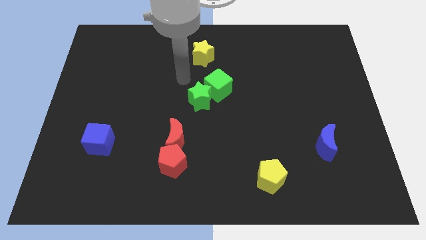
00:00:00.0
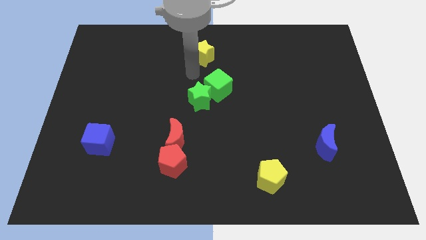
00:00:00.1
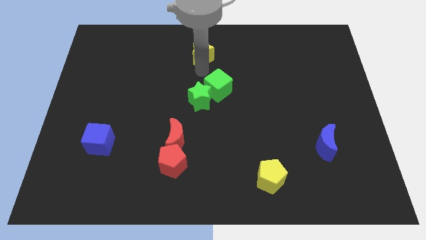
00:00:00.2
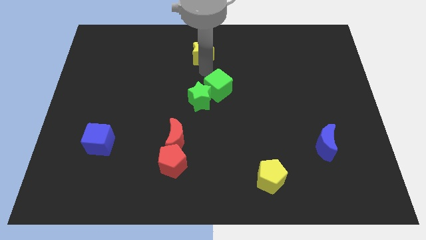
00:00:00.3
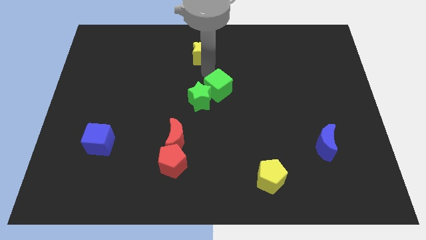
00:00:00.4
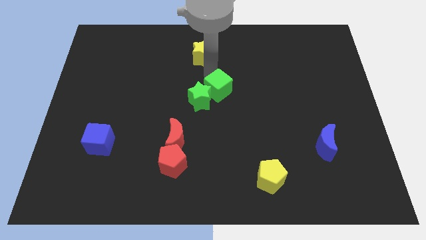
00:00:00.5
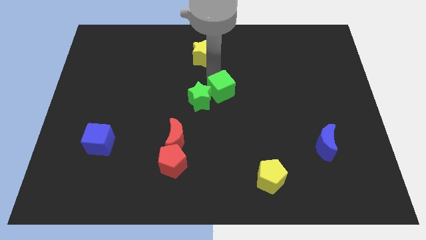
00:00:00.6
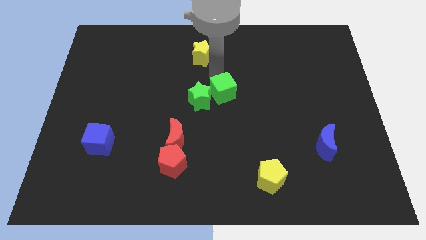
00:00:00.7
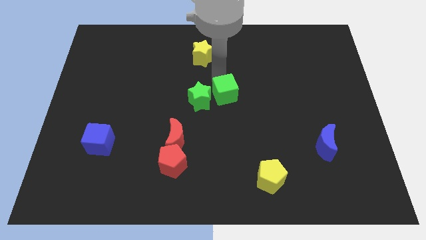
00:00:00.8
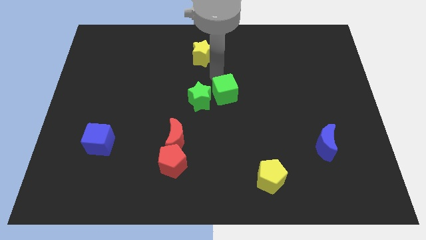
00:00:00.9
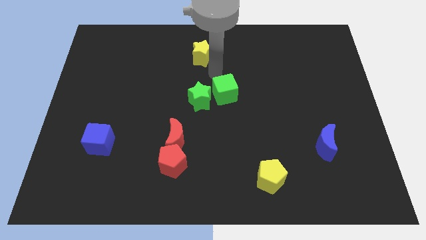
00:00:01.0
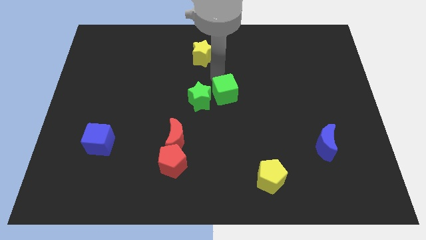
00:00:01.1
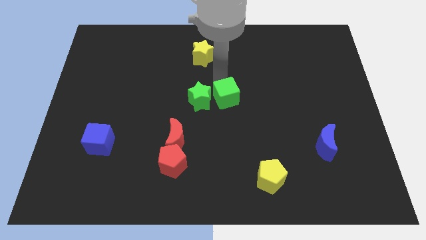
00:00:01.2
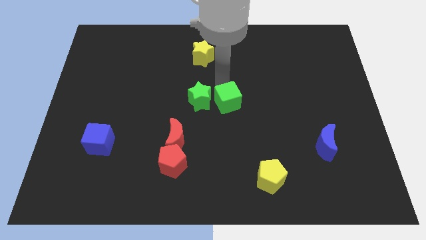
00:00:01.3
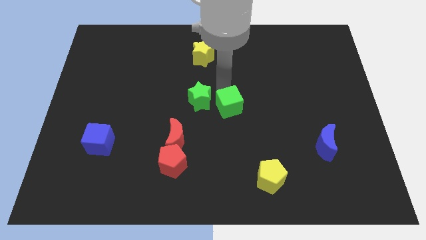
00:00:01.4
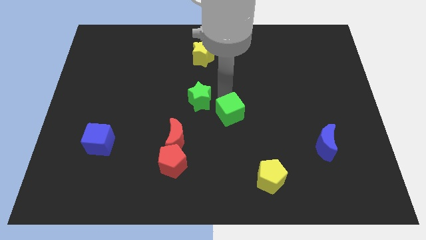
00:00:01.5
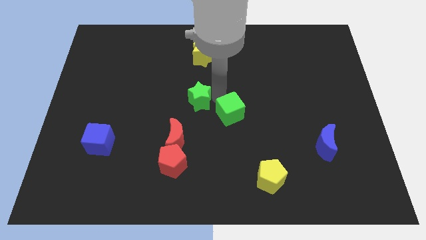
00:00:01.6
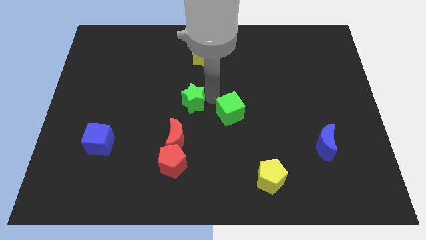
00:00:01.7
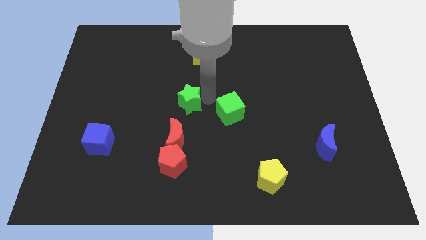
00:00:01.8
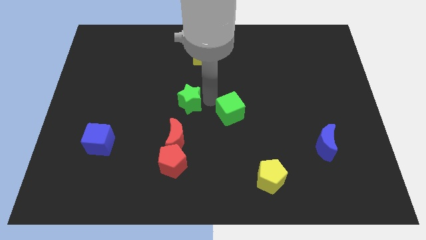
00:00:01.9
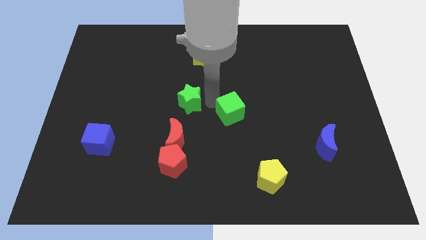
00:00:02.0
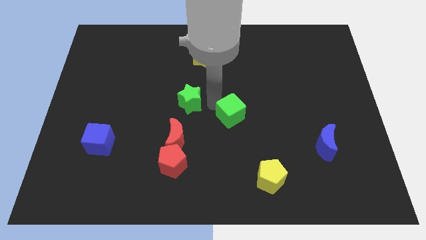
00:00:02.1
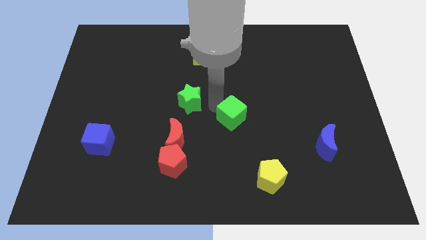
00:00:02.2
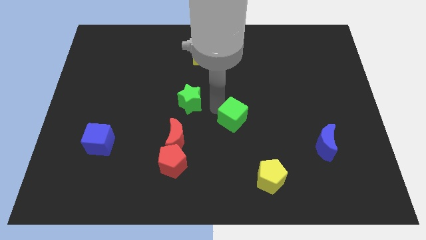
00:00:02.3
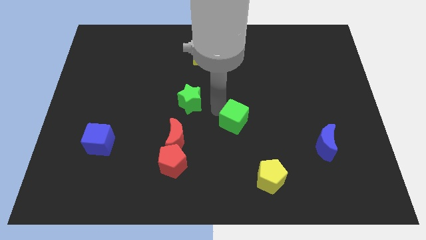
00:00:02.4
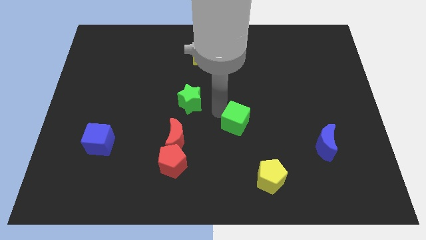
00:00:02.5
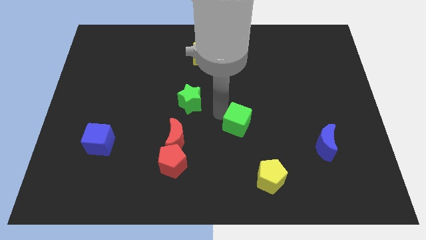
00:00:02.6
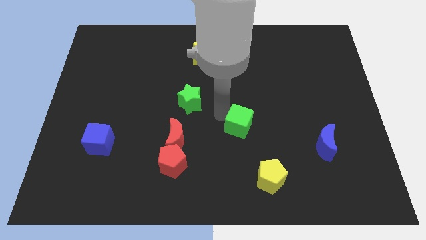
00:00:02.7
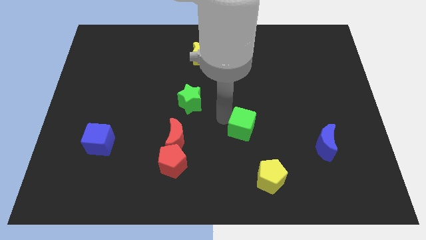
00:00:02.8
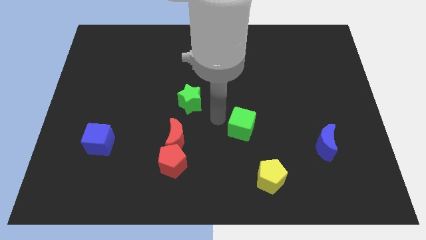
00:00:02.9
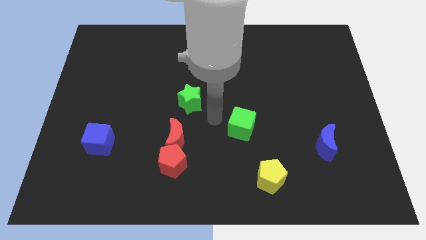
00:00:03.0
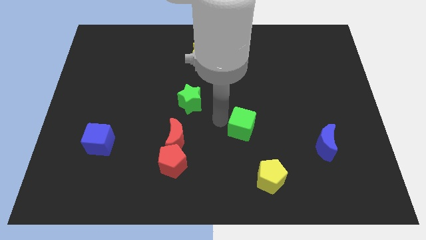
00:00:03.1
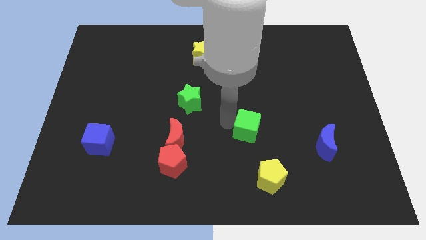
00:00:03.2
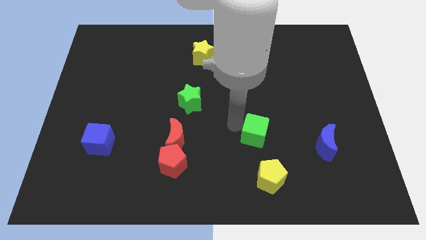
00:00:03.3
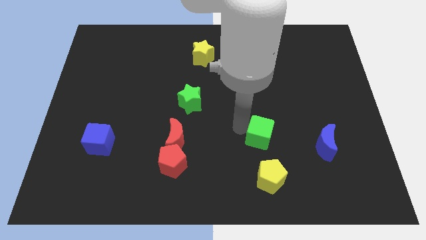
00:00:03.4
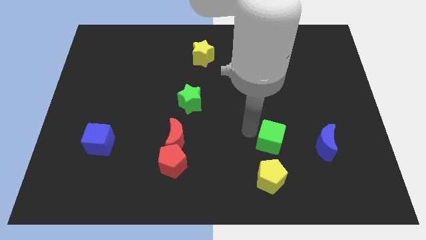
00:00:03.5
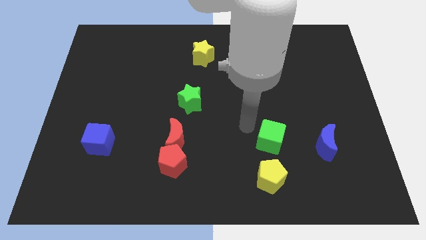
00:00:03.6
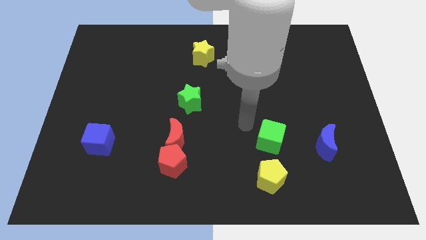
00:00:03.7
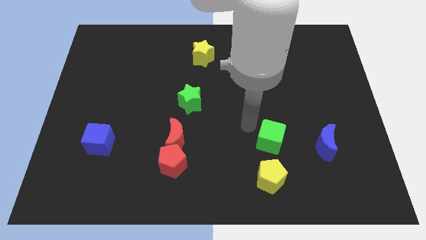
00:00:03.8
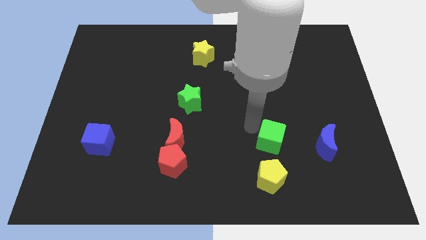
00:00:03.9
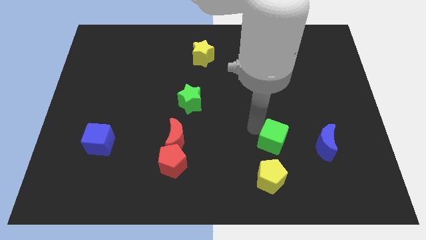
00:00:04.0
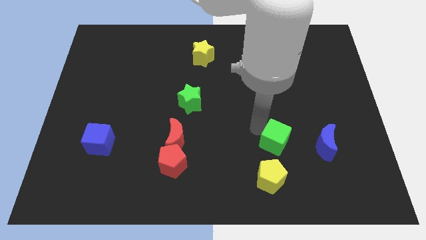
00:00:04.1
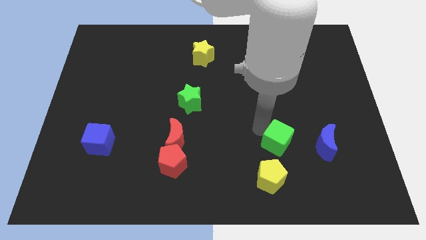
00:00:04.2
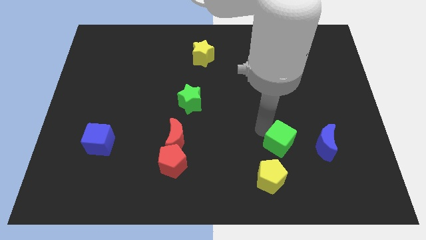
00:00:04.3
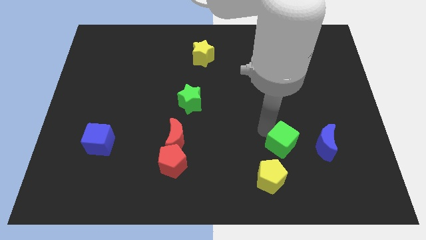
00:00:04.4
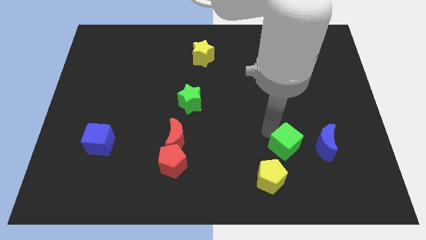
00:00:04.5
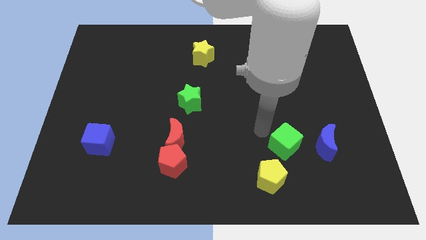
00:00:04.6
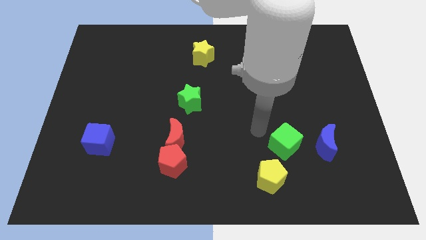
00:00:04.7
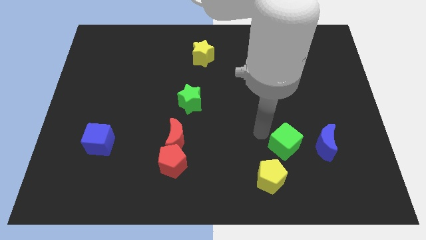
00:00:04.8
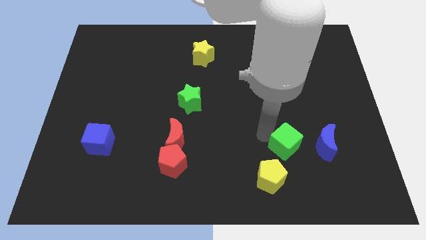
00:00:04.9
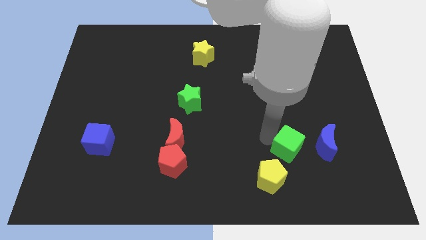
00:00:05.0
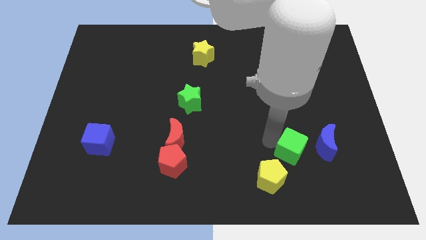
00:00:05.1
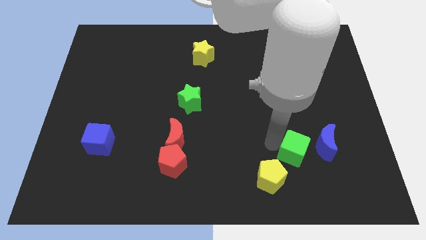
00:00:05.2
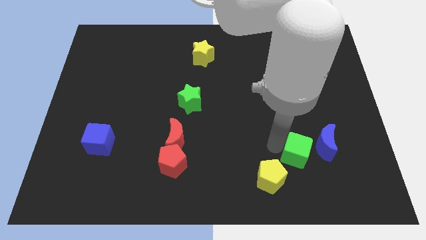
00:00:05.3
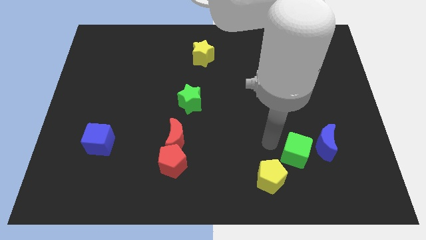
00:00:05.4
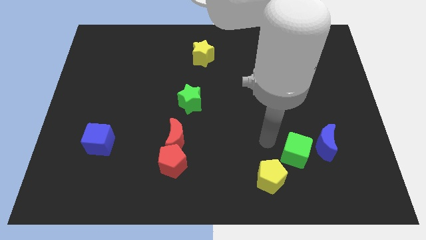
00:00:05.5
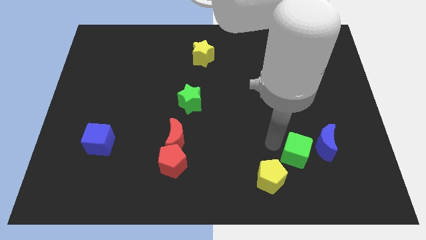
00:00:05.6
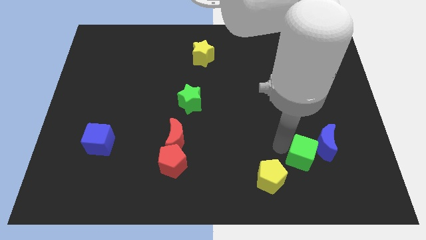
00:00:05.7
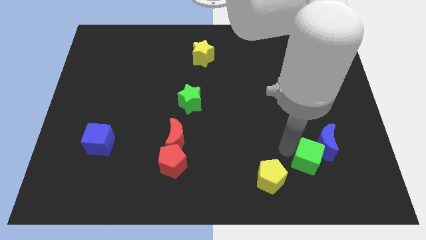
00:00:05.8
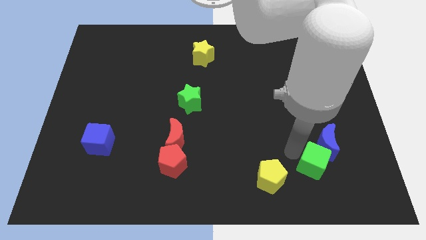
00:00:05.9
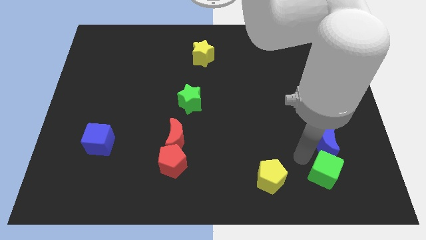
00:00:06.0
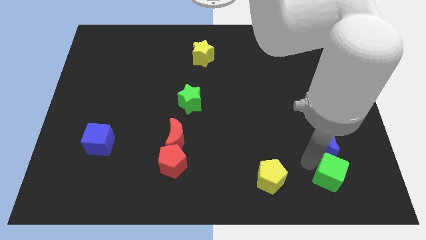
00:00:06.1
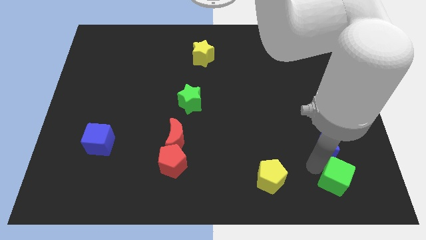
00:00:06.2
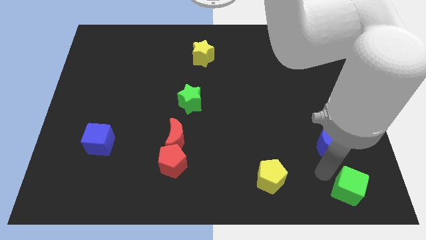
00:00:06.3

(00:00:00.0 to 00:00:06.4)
slide the green cube to the bottom right of the board

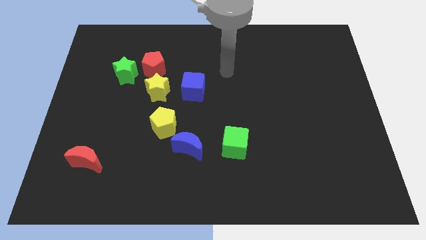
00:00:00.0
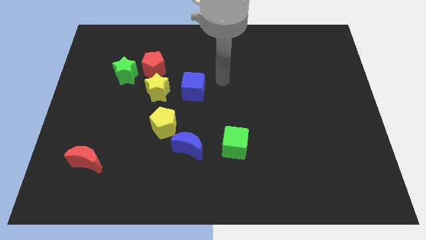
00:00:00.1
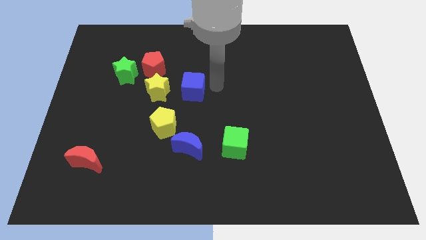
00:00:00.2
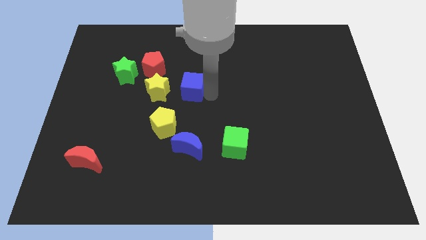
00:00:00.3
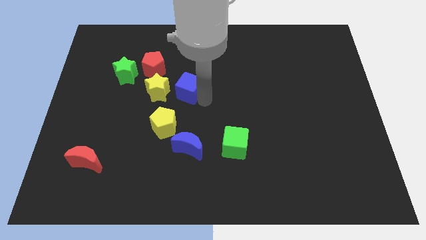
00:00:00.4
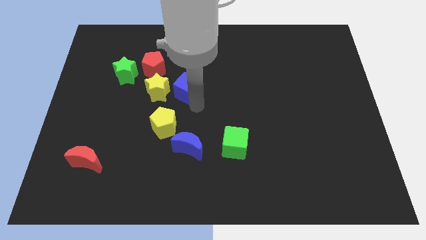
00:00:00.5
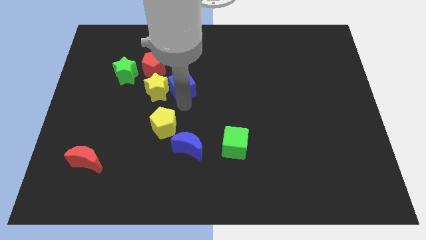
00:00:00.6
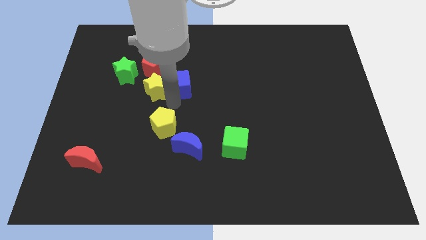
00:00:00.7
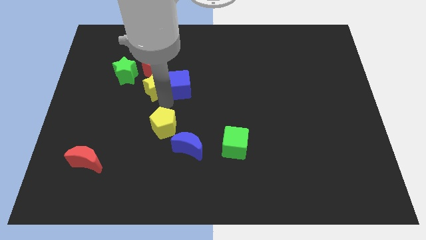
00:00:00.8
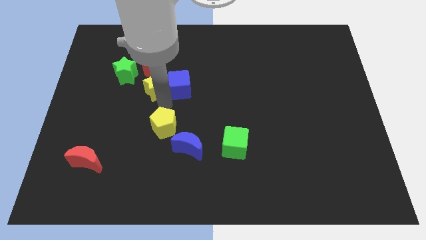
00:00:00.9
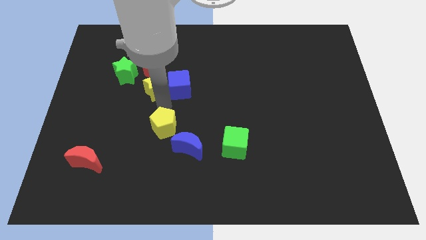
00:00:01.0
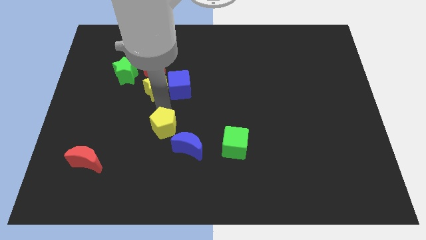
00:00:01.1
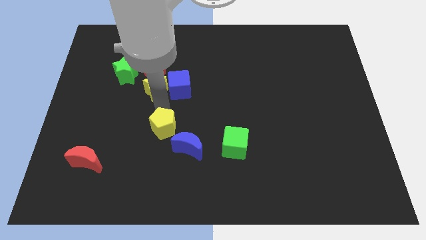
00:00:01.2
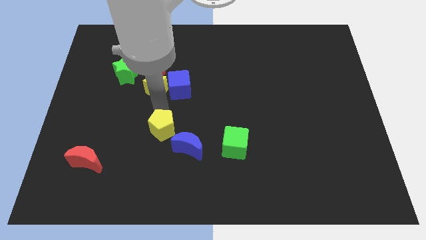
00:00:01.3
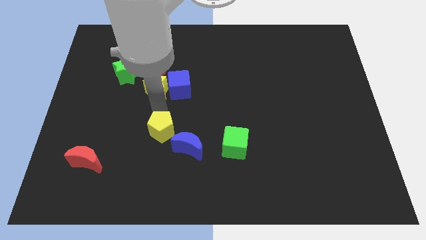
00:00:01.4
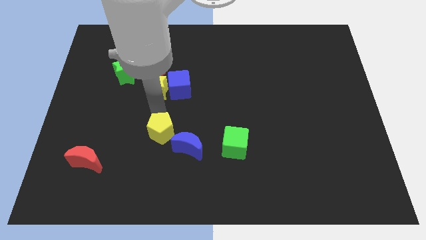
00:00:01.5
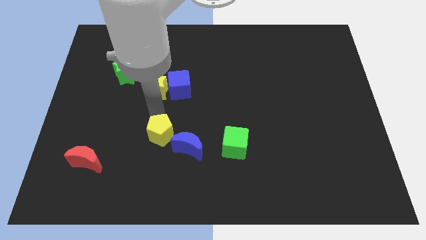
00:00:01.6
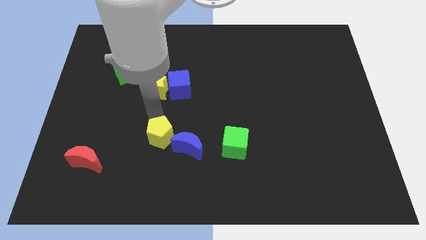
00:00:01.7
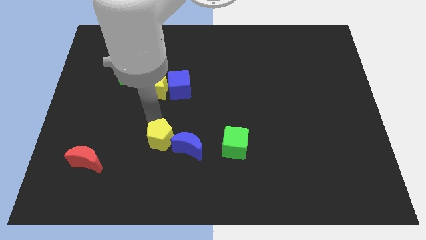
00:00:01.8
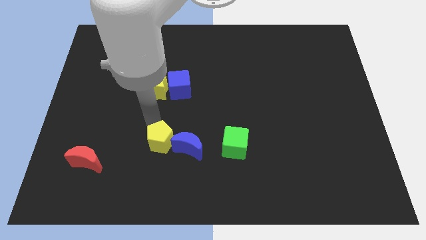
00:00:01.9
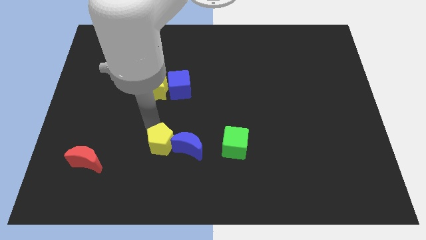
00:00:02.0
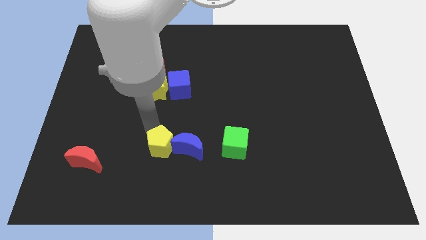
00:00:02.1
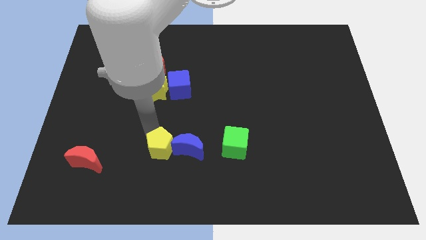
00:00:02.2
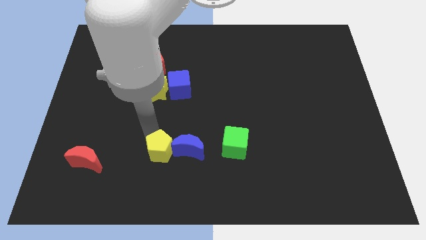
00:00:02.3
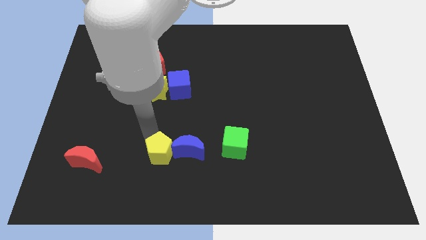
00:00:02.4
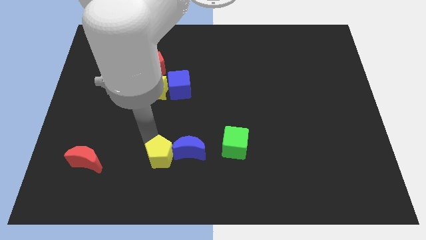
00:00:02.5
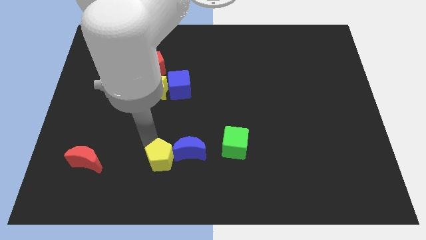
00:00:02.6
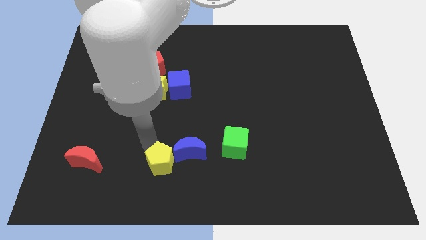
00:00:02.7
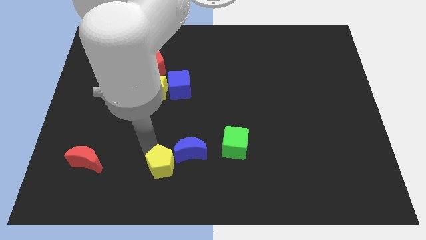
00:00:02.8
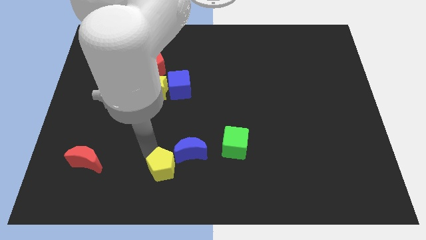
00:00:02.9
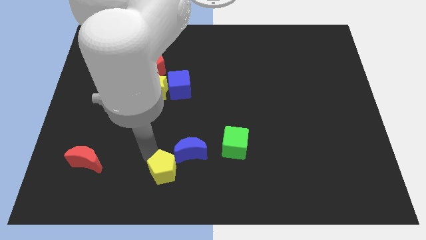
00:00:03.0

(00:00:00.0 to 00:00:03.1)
move the yellow pentagon to the bottom
